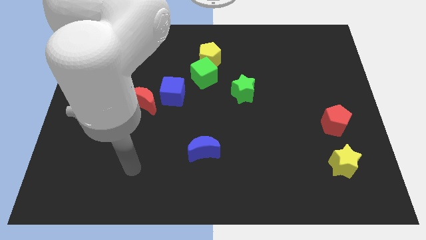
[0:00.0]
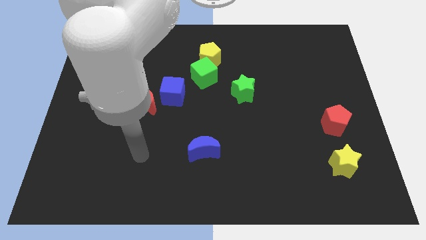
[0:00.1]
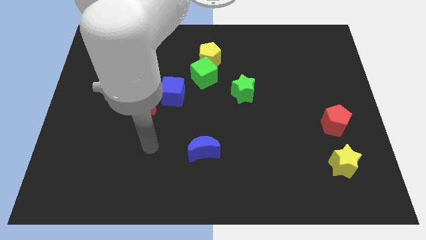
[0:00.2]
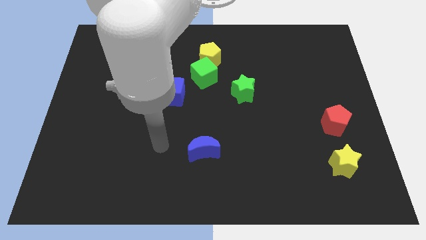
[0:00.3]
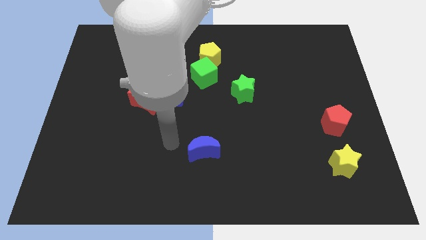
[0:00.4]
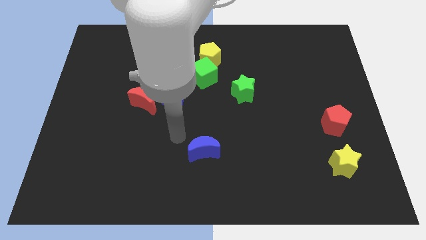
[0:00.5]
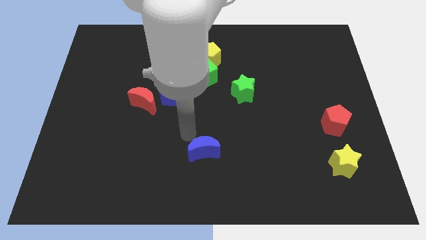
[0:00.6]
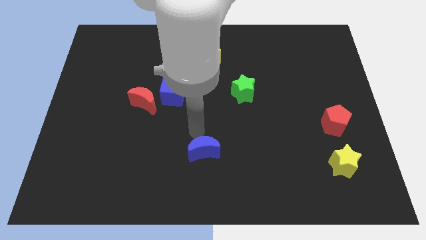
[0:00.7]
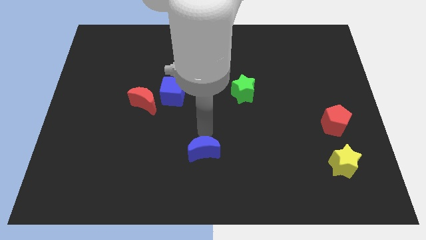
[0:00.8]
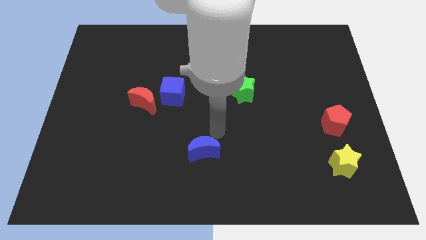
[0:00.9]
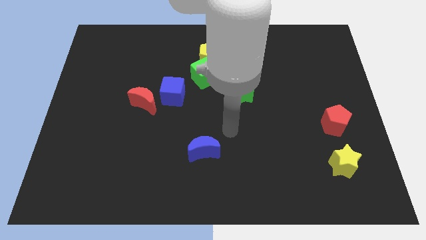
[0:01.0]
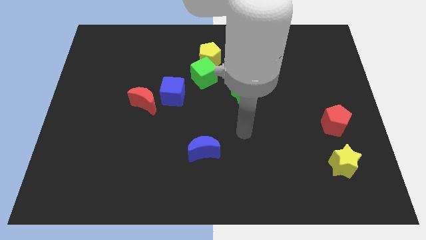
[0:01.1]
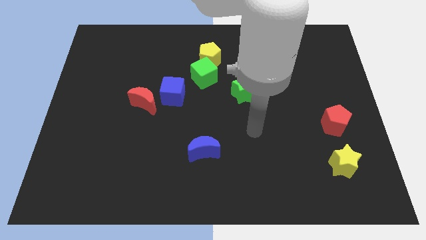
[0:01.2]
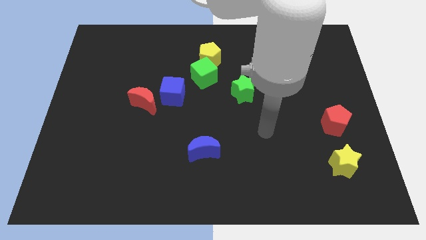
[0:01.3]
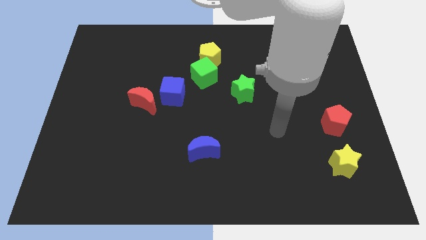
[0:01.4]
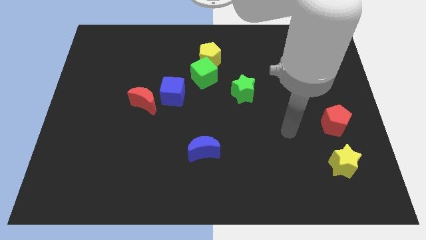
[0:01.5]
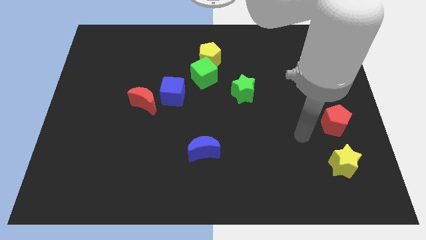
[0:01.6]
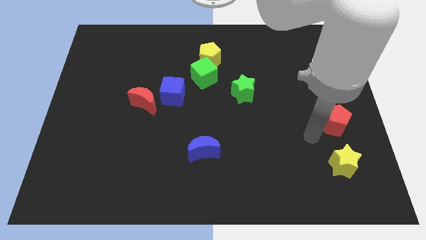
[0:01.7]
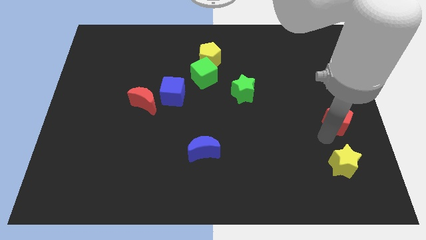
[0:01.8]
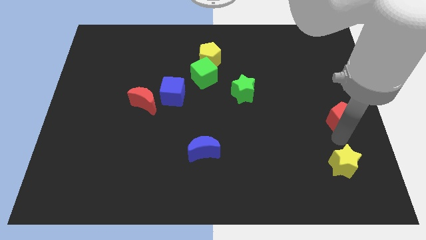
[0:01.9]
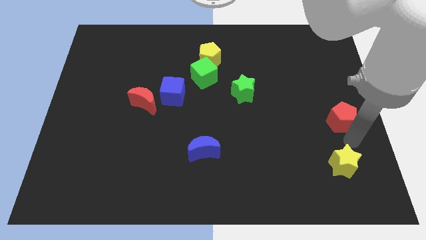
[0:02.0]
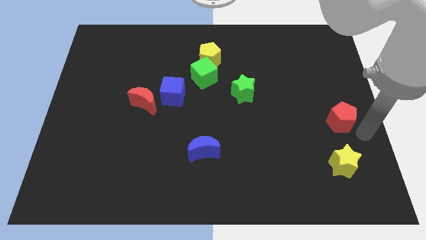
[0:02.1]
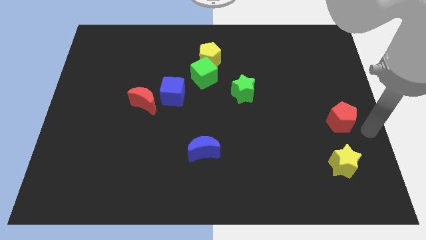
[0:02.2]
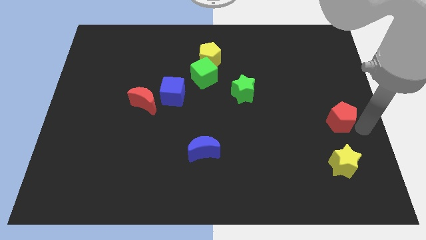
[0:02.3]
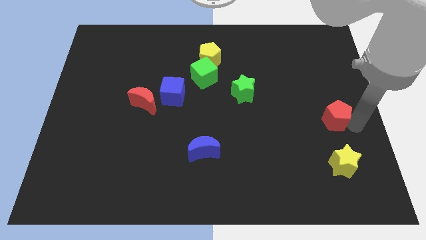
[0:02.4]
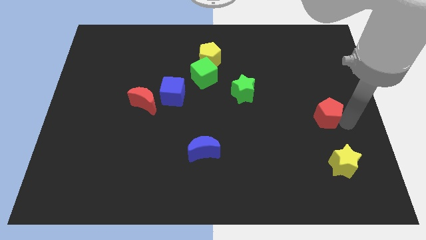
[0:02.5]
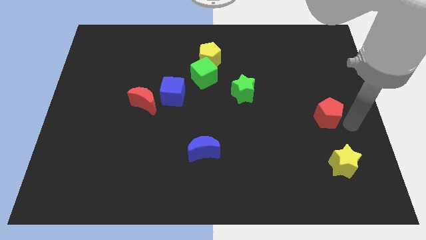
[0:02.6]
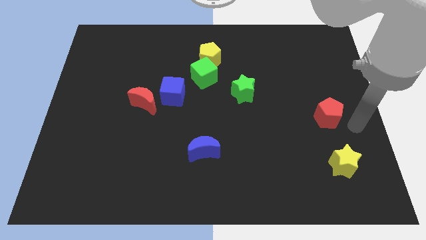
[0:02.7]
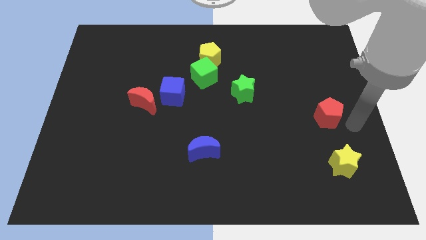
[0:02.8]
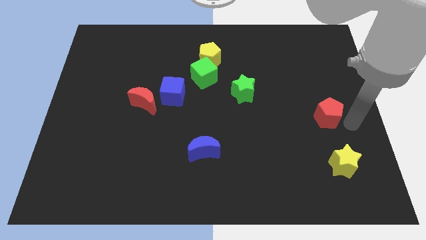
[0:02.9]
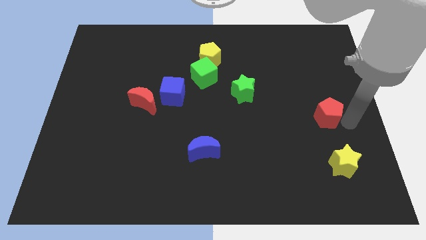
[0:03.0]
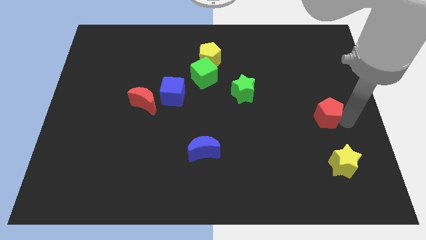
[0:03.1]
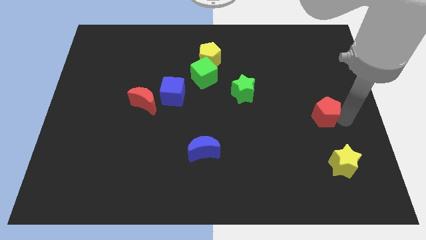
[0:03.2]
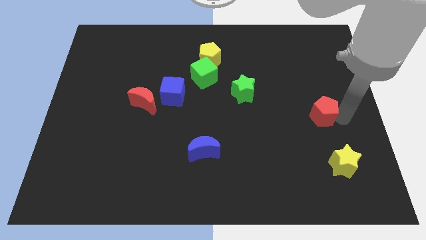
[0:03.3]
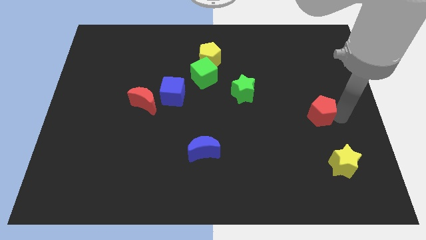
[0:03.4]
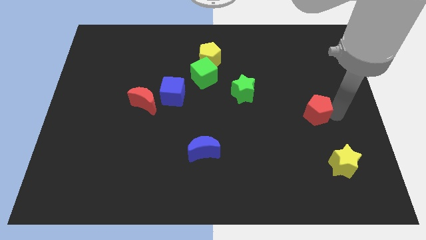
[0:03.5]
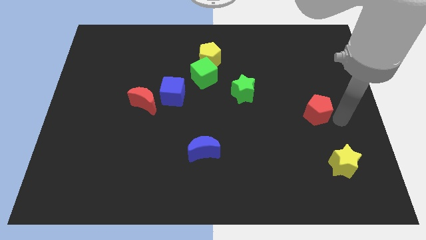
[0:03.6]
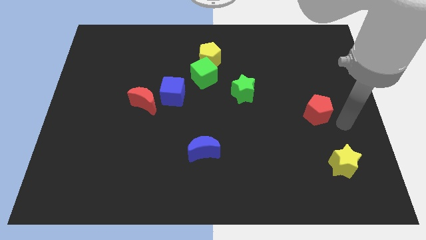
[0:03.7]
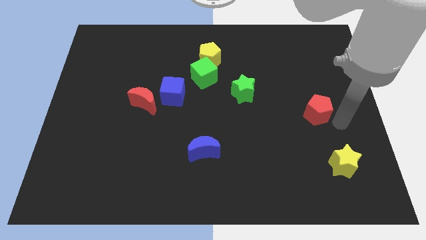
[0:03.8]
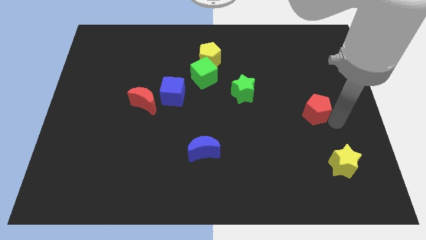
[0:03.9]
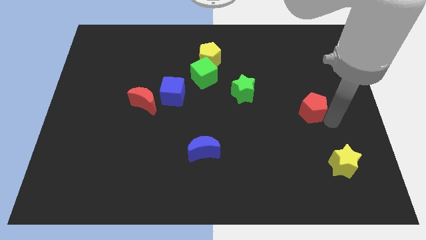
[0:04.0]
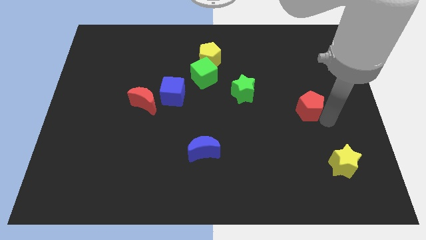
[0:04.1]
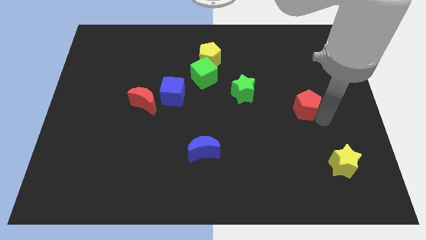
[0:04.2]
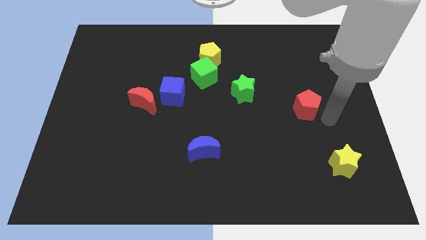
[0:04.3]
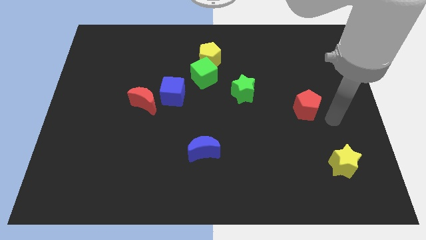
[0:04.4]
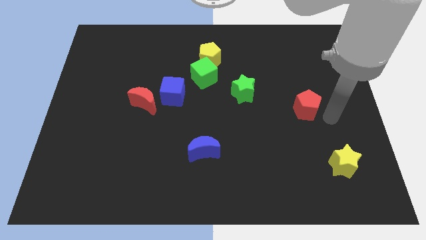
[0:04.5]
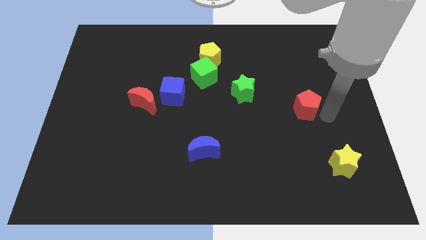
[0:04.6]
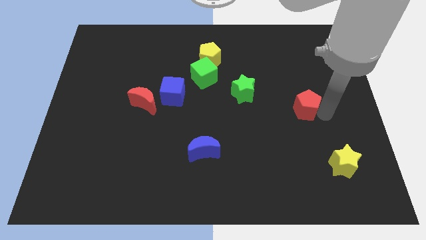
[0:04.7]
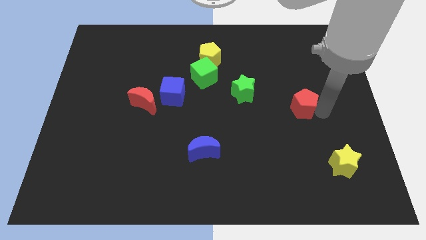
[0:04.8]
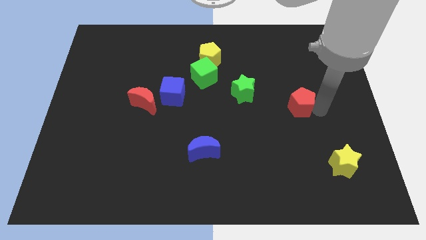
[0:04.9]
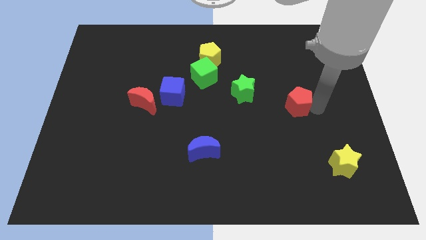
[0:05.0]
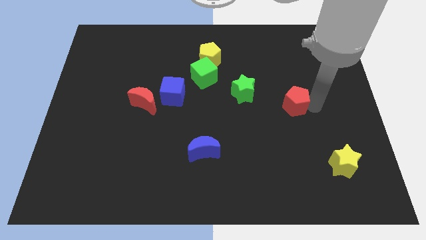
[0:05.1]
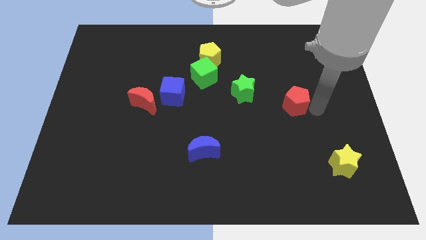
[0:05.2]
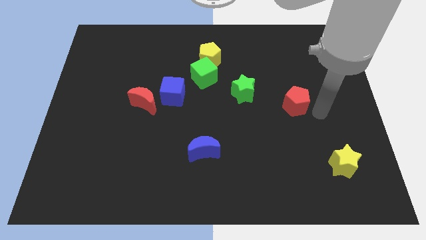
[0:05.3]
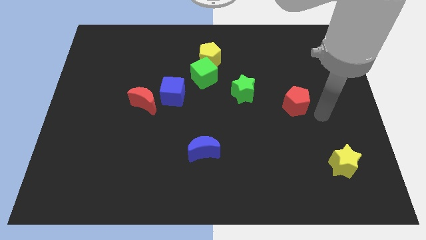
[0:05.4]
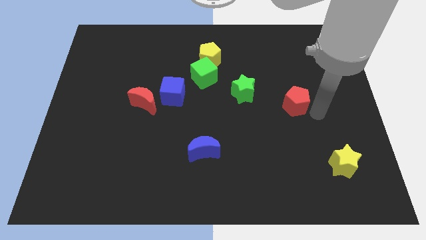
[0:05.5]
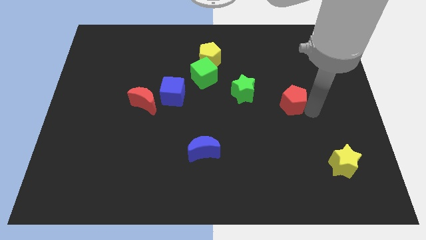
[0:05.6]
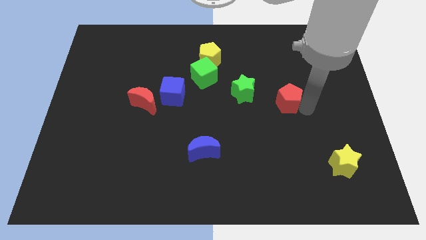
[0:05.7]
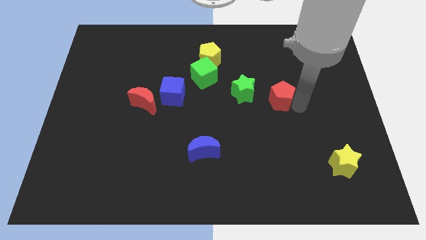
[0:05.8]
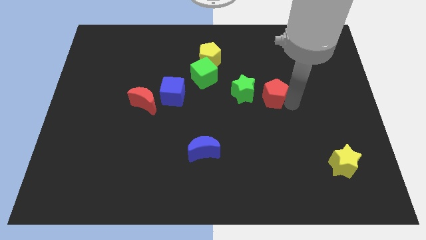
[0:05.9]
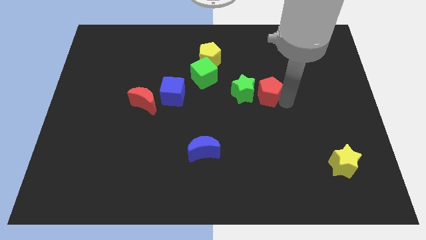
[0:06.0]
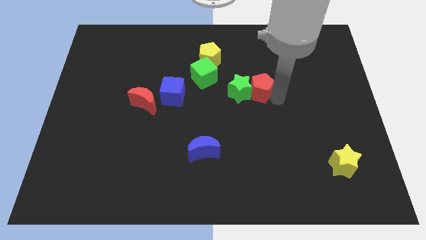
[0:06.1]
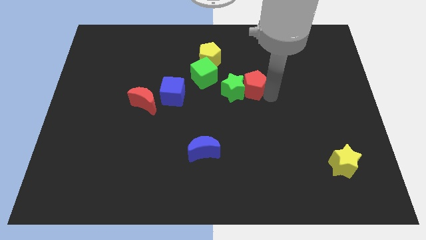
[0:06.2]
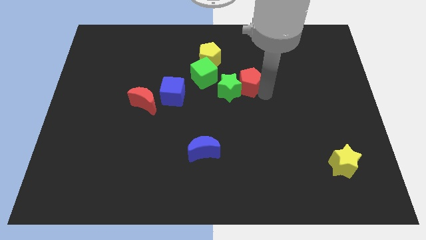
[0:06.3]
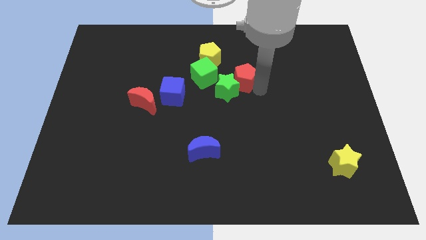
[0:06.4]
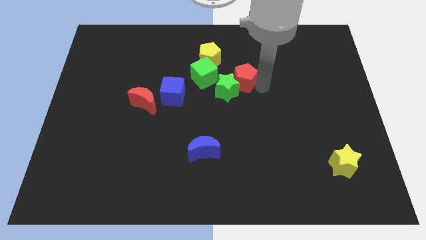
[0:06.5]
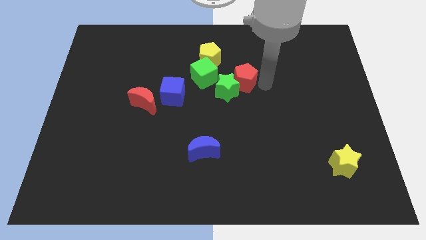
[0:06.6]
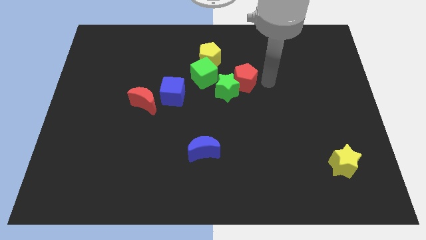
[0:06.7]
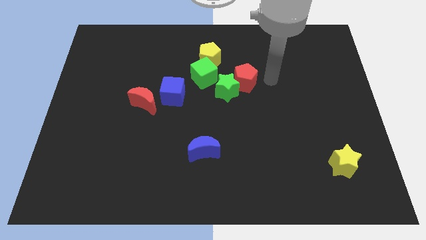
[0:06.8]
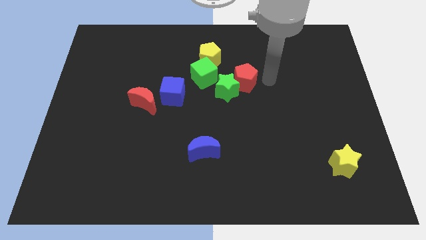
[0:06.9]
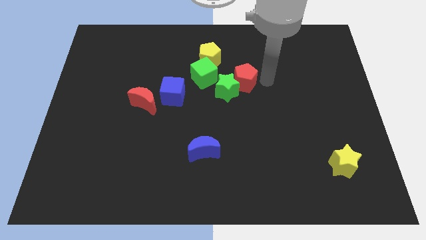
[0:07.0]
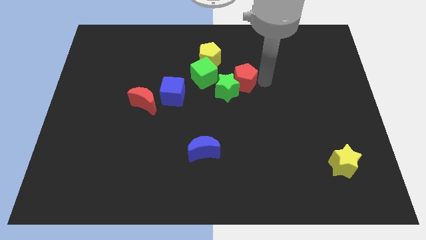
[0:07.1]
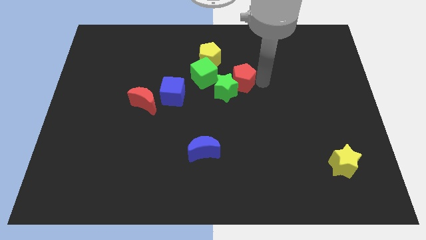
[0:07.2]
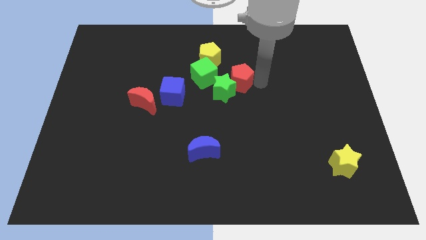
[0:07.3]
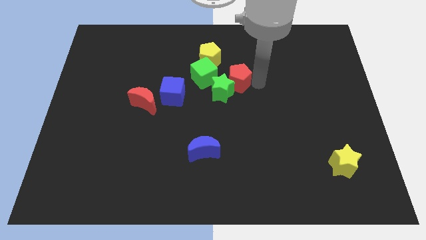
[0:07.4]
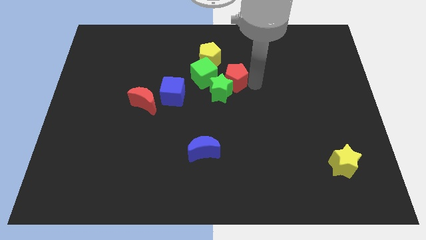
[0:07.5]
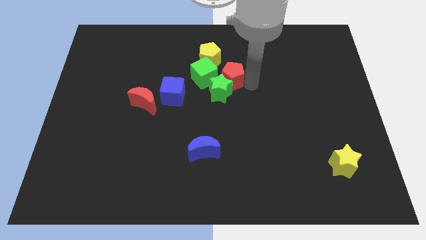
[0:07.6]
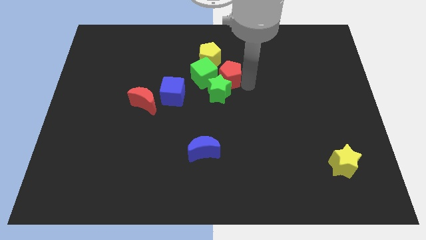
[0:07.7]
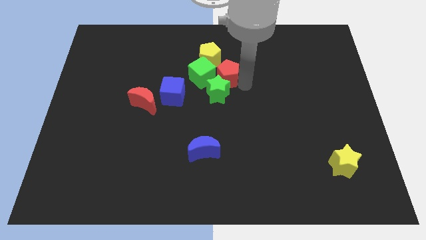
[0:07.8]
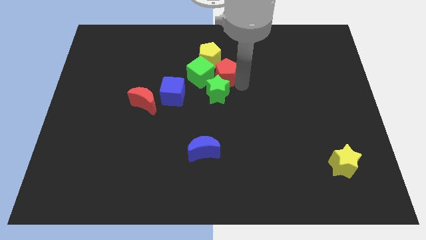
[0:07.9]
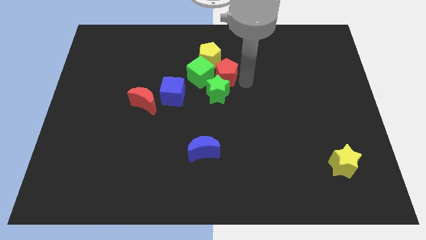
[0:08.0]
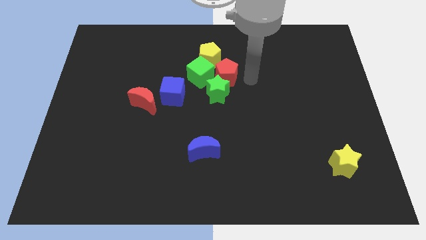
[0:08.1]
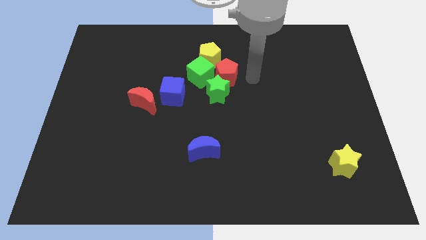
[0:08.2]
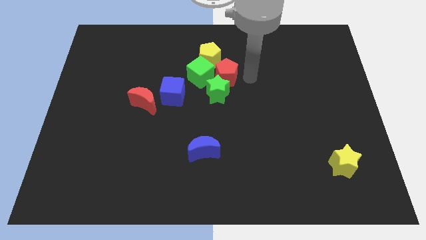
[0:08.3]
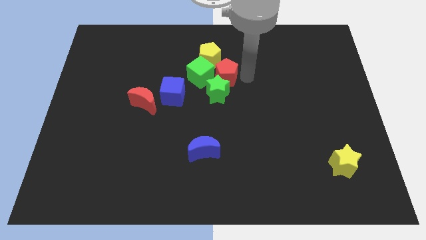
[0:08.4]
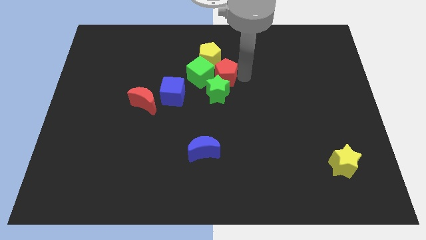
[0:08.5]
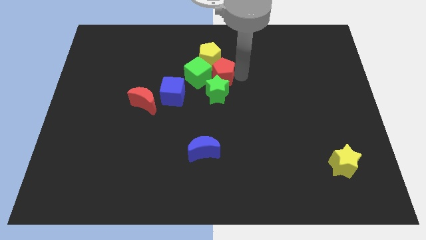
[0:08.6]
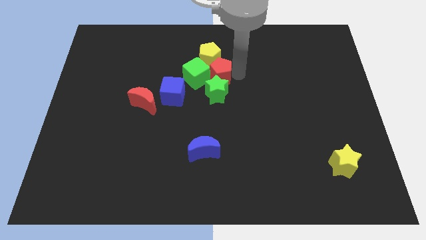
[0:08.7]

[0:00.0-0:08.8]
put the red pentagon towards the green cube
